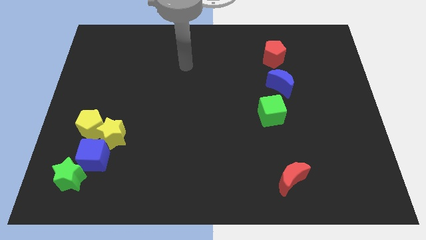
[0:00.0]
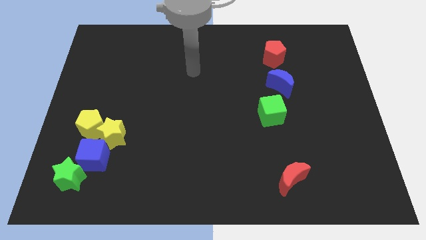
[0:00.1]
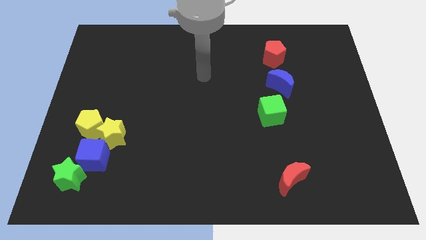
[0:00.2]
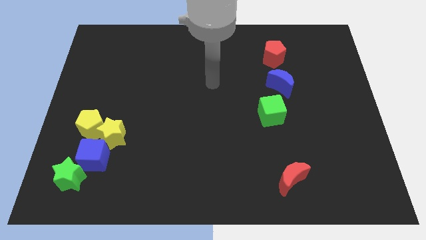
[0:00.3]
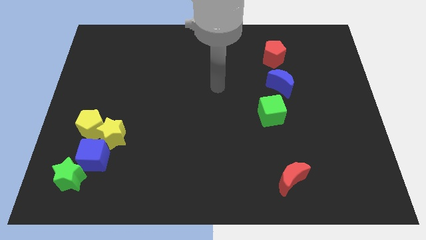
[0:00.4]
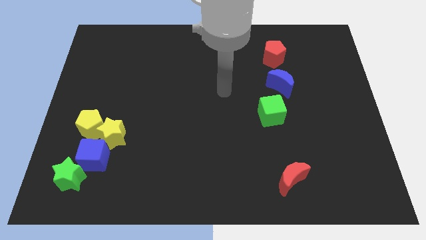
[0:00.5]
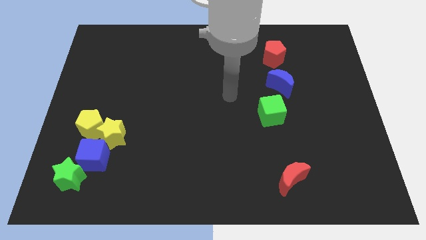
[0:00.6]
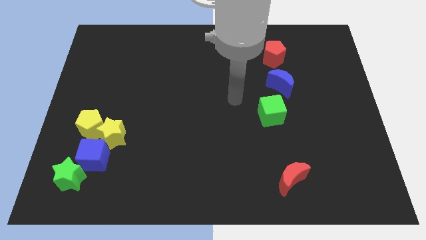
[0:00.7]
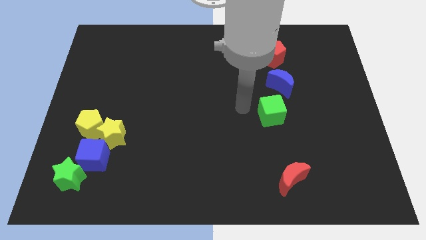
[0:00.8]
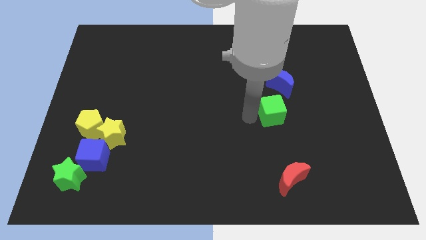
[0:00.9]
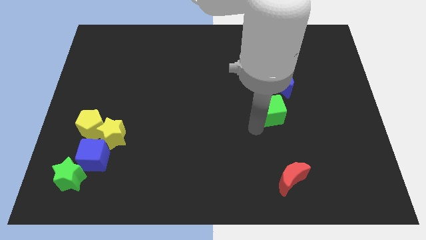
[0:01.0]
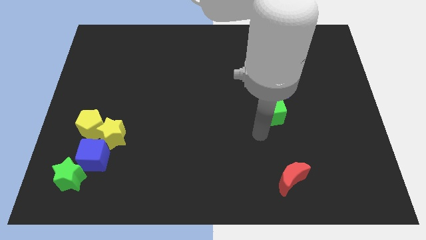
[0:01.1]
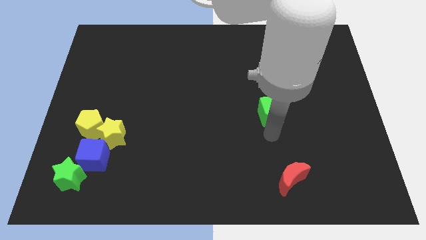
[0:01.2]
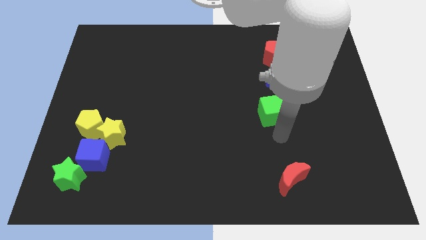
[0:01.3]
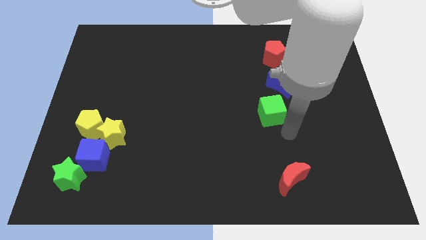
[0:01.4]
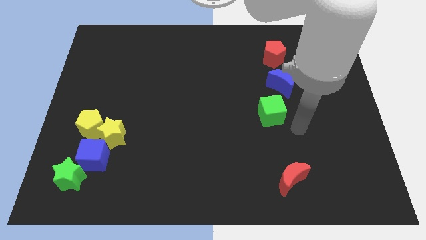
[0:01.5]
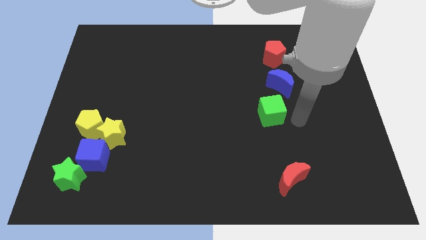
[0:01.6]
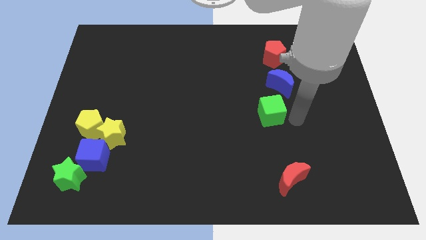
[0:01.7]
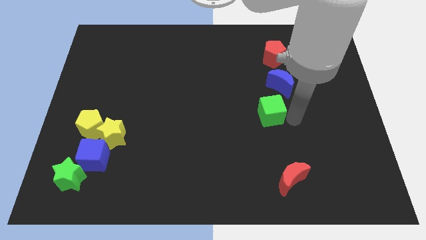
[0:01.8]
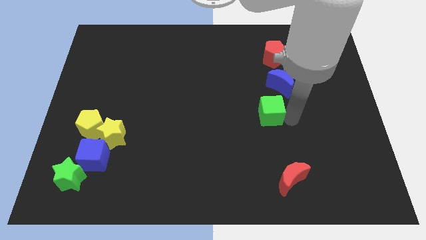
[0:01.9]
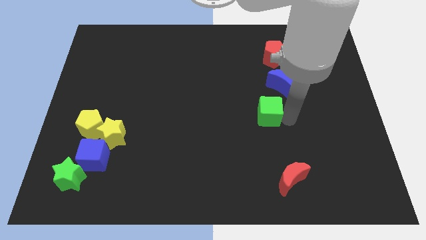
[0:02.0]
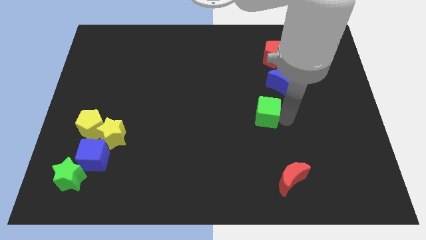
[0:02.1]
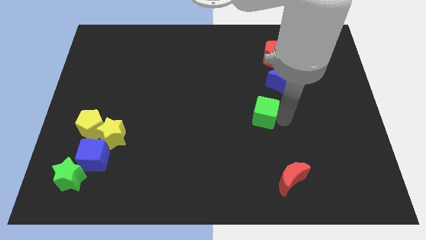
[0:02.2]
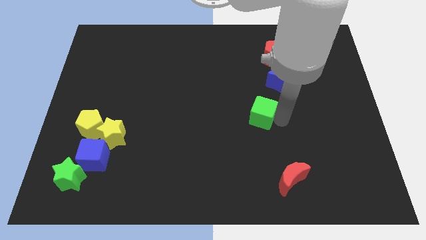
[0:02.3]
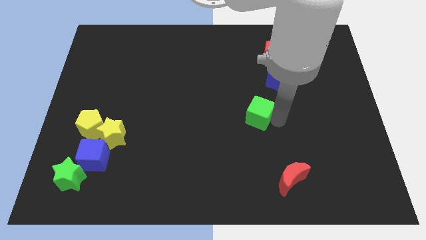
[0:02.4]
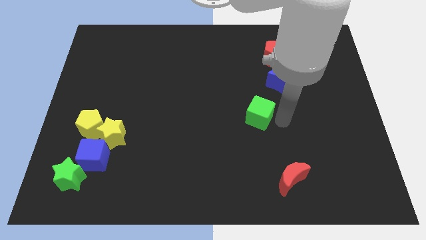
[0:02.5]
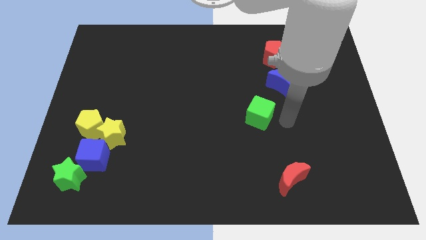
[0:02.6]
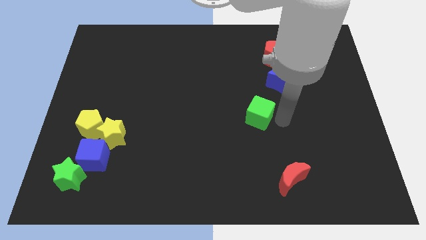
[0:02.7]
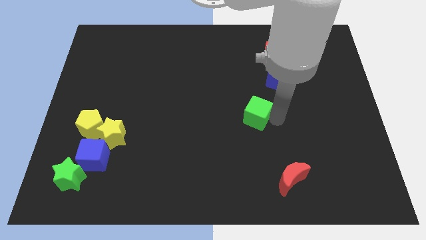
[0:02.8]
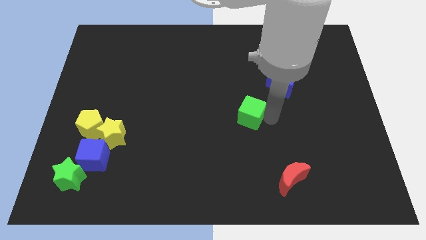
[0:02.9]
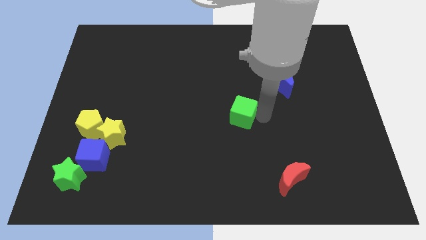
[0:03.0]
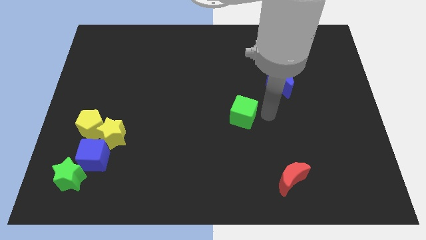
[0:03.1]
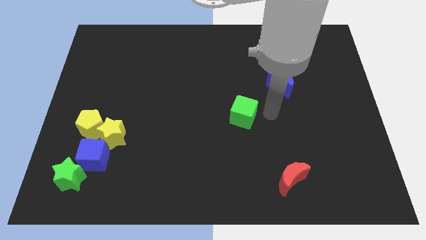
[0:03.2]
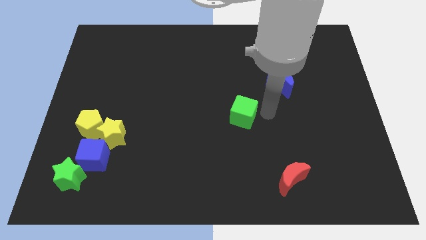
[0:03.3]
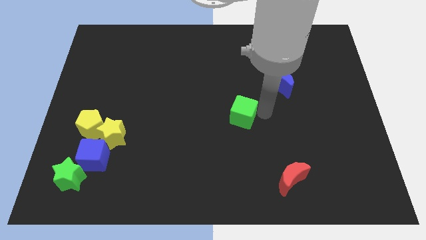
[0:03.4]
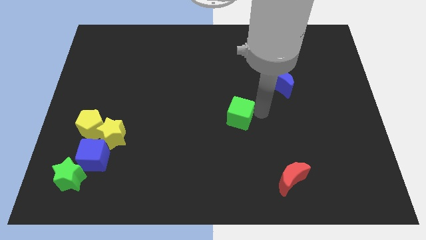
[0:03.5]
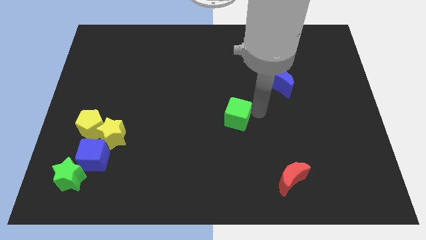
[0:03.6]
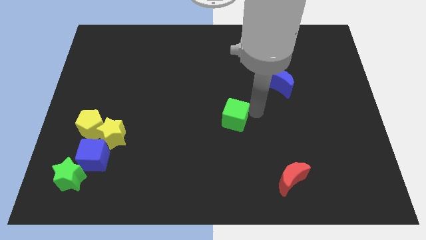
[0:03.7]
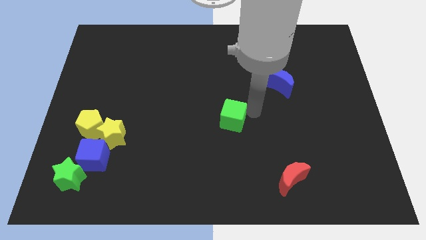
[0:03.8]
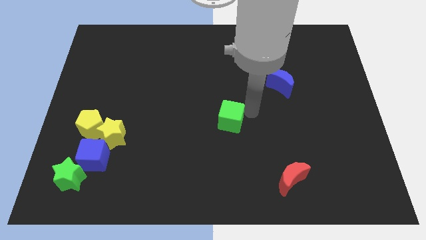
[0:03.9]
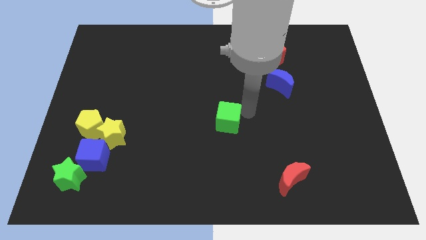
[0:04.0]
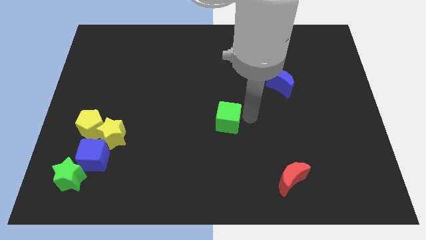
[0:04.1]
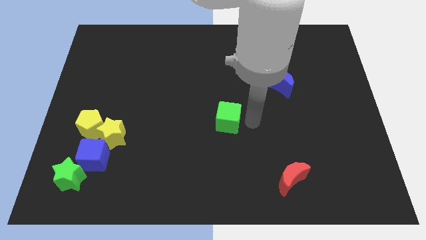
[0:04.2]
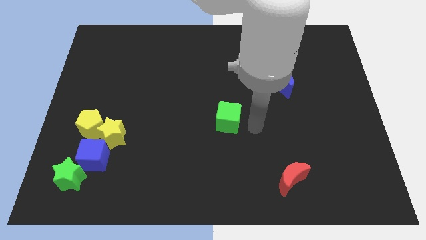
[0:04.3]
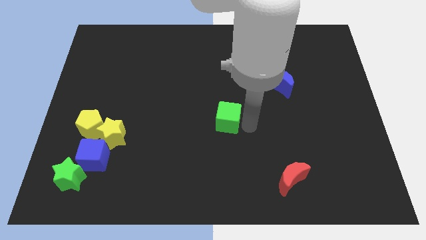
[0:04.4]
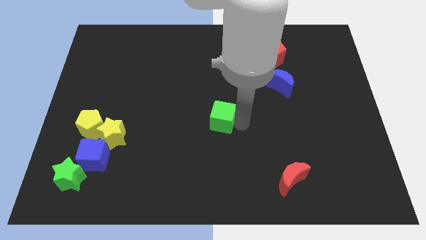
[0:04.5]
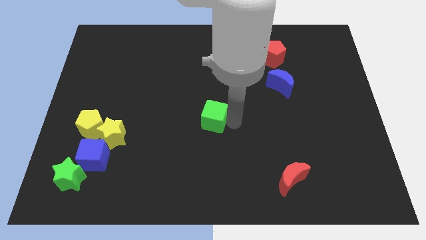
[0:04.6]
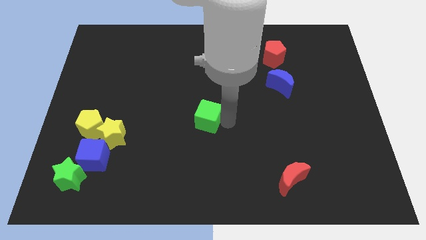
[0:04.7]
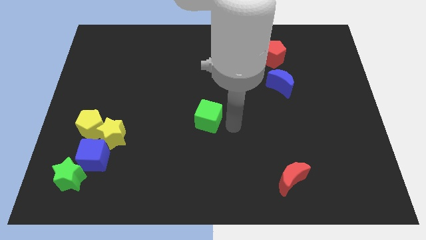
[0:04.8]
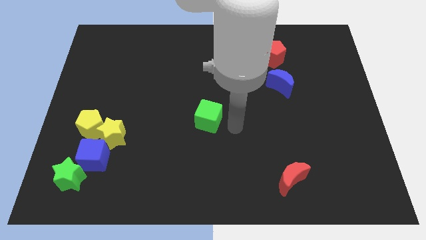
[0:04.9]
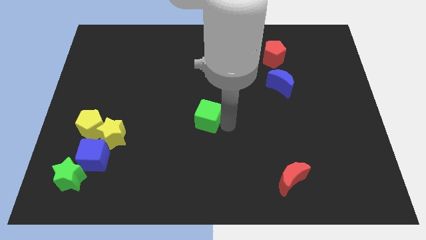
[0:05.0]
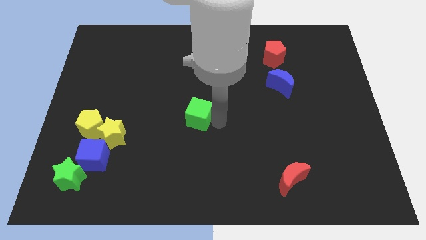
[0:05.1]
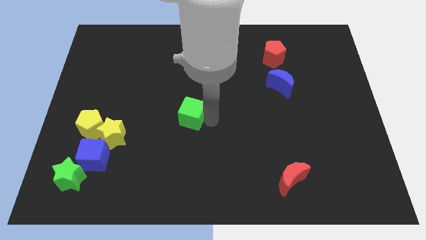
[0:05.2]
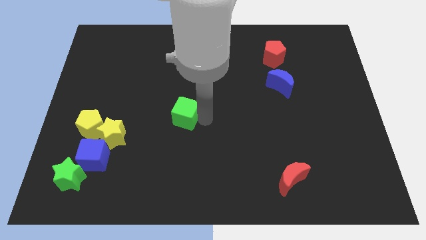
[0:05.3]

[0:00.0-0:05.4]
move the green cube to the left

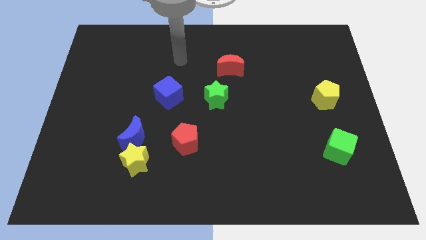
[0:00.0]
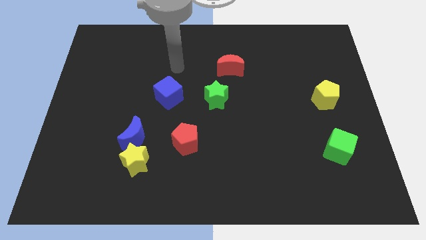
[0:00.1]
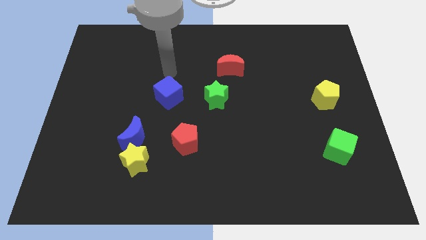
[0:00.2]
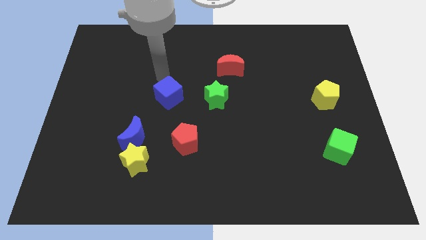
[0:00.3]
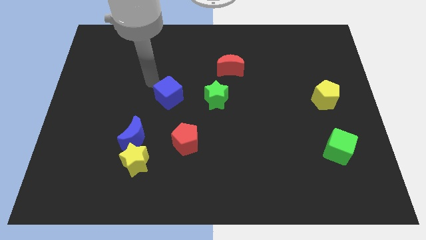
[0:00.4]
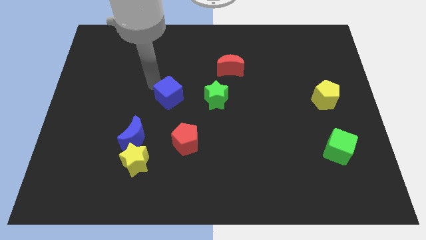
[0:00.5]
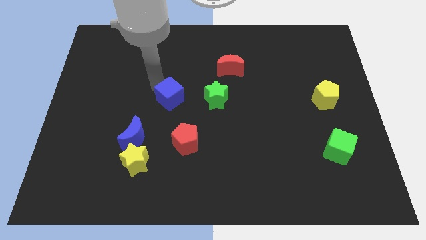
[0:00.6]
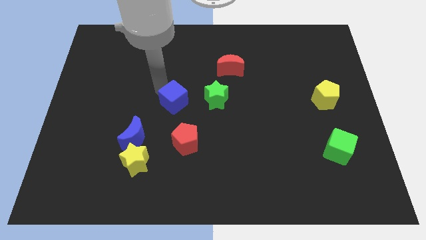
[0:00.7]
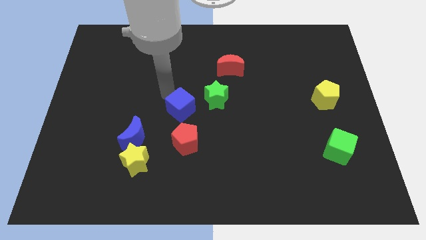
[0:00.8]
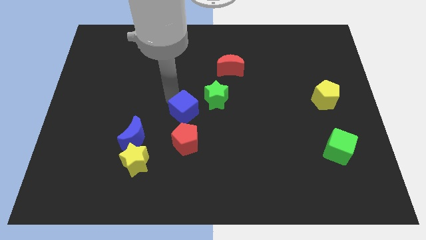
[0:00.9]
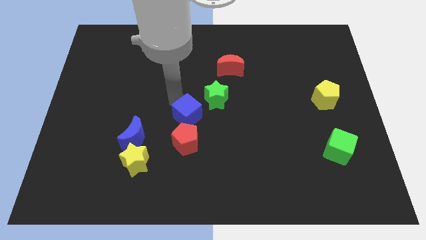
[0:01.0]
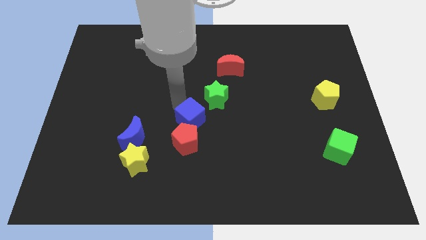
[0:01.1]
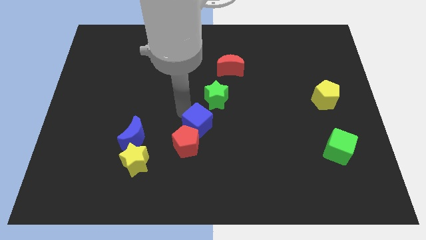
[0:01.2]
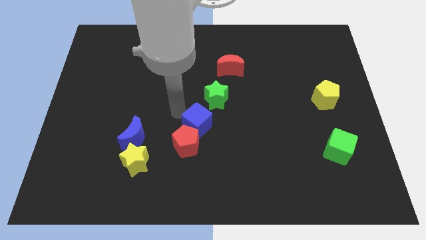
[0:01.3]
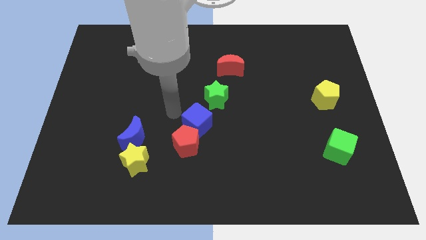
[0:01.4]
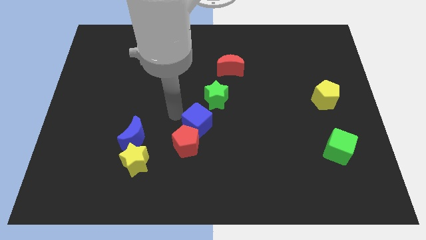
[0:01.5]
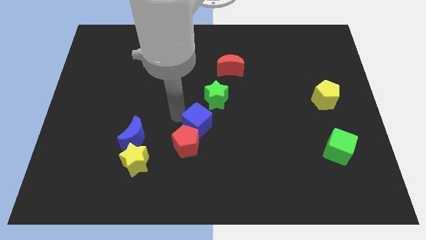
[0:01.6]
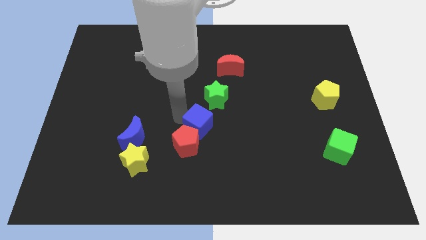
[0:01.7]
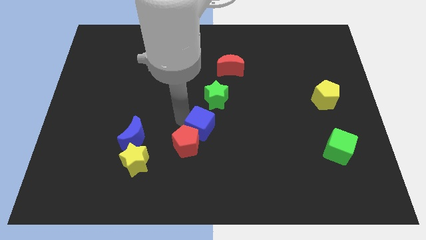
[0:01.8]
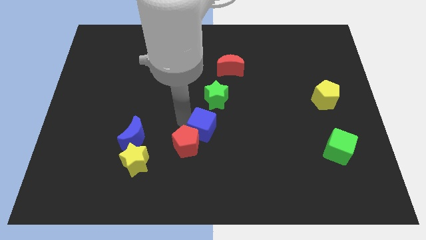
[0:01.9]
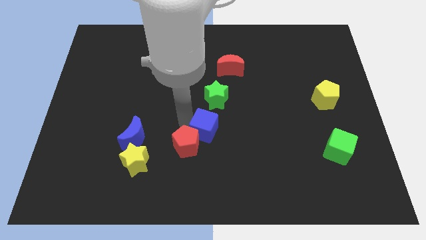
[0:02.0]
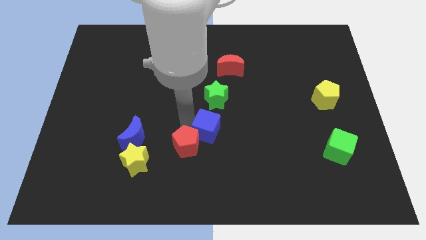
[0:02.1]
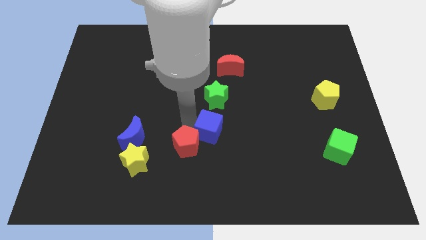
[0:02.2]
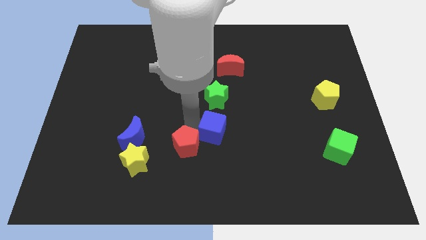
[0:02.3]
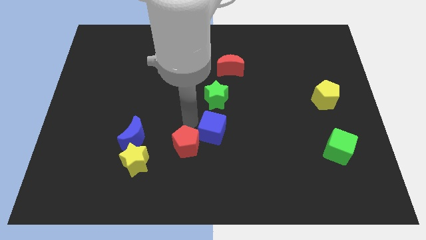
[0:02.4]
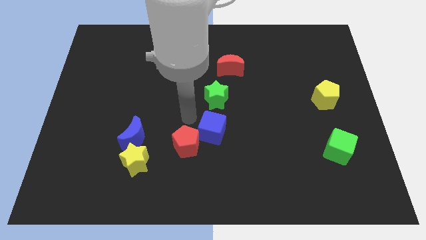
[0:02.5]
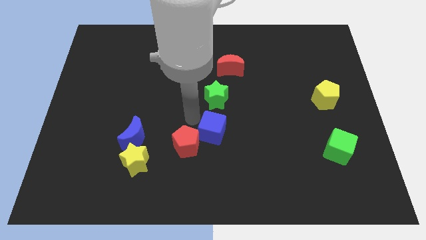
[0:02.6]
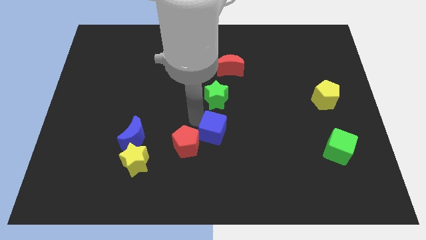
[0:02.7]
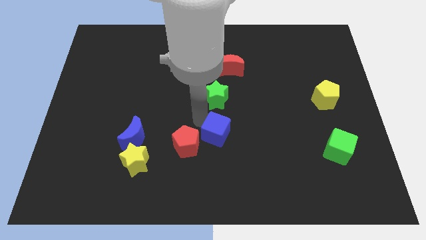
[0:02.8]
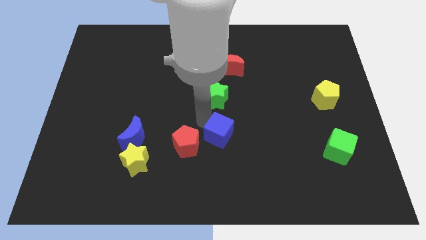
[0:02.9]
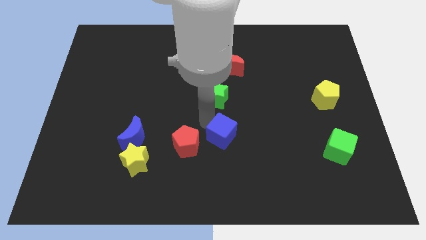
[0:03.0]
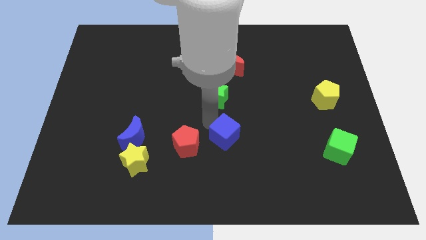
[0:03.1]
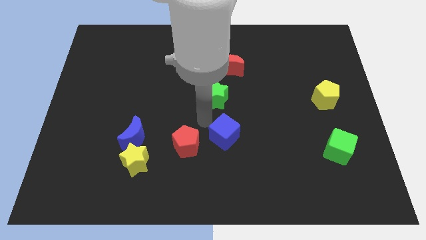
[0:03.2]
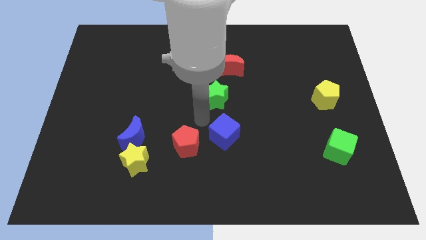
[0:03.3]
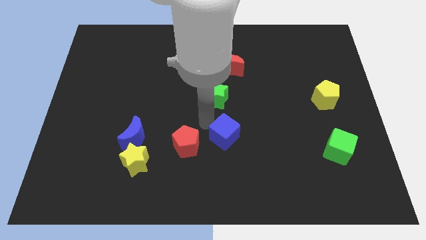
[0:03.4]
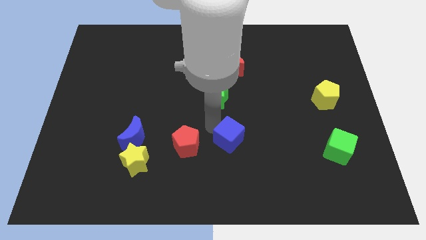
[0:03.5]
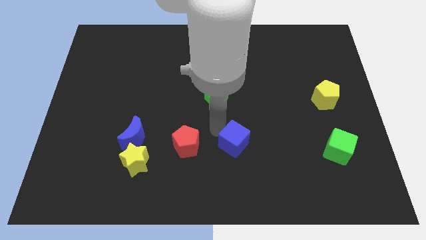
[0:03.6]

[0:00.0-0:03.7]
slide the blue cube down and then to the right
